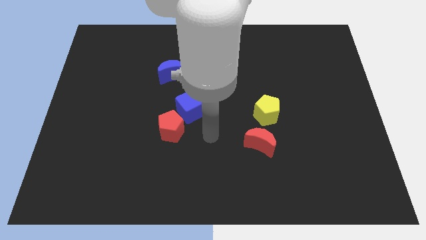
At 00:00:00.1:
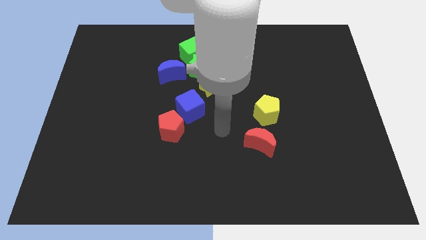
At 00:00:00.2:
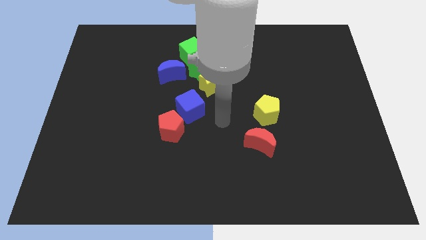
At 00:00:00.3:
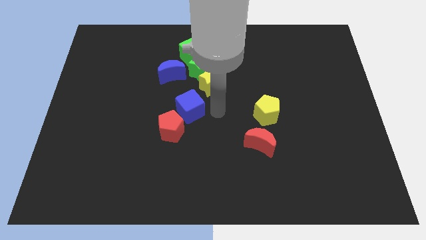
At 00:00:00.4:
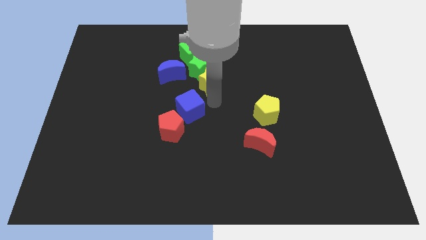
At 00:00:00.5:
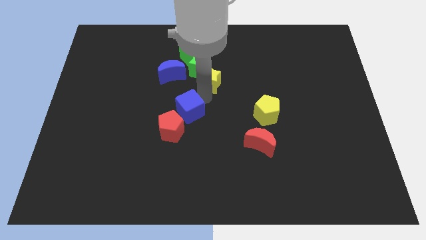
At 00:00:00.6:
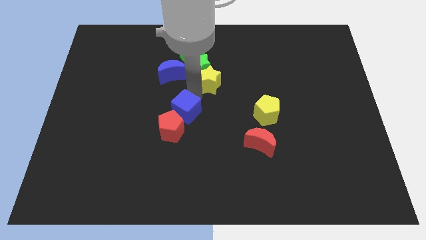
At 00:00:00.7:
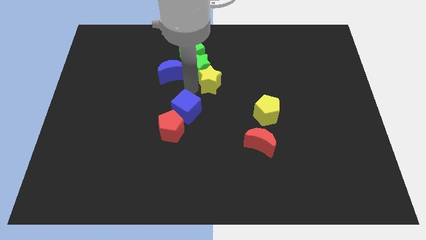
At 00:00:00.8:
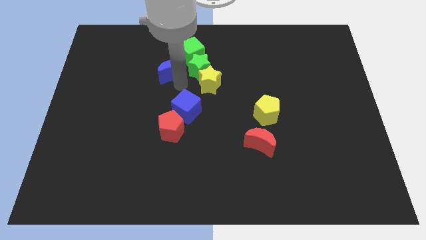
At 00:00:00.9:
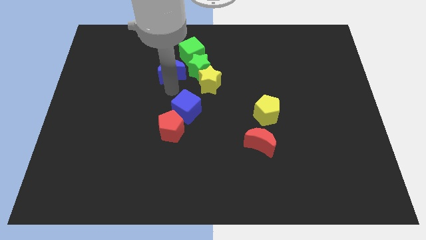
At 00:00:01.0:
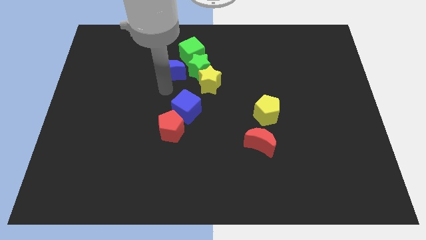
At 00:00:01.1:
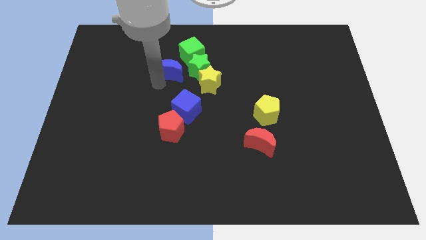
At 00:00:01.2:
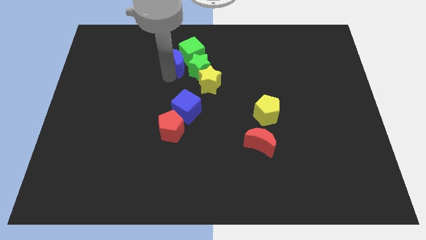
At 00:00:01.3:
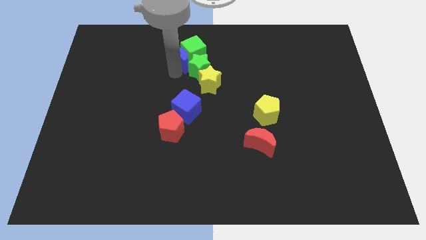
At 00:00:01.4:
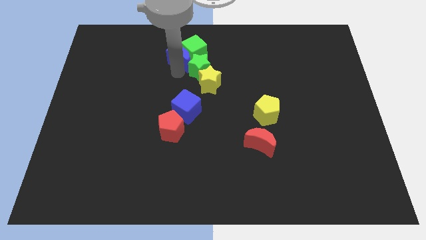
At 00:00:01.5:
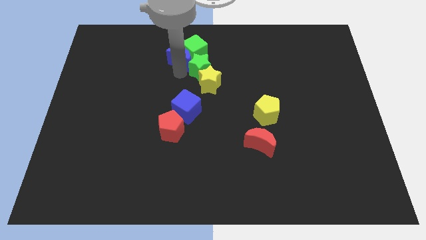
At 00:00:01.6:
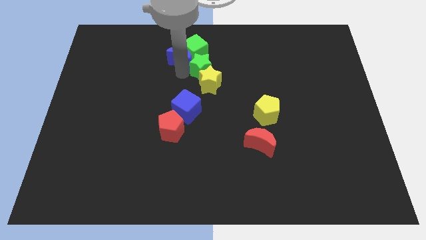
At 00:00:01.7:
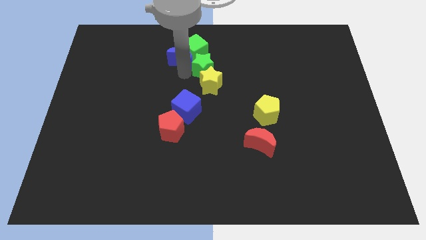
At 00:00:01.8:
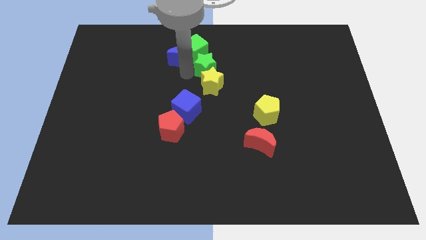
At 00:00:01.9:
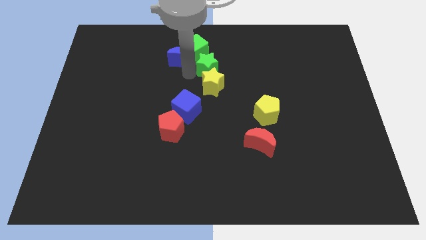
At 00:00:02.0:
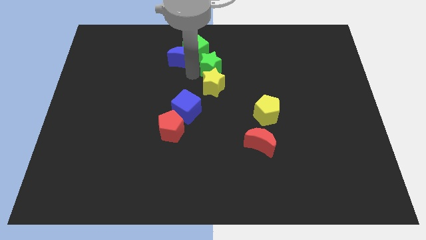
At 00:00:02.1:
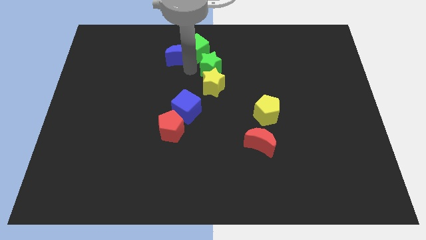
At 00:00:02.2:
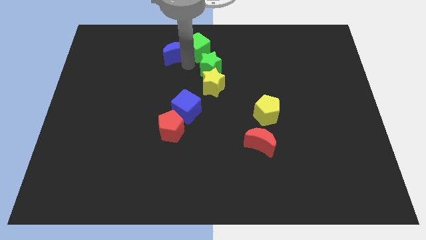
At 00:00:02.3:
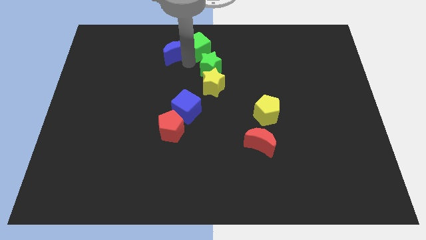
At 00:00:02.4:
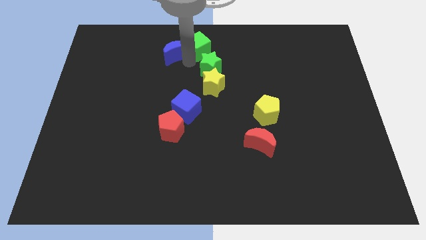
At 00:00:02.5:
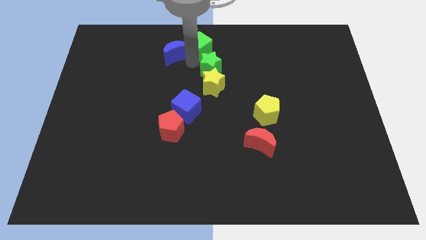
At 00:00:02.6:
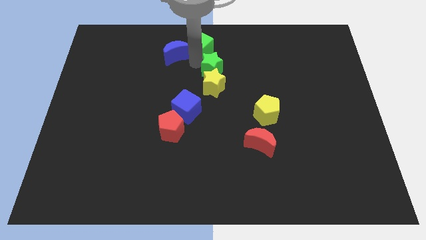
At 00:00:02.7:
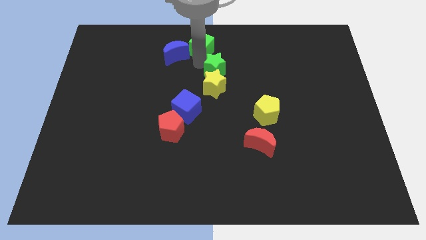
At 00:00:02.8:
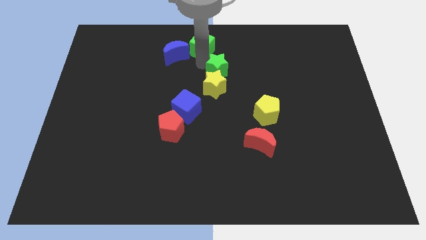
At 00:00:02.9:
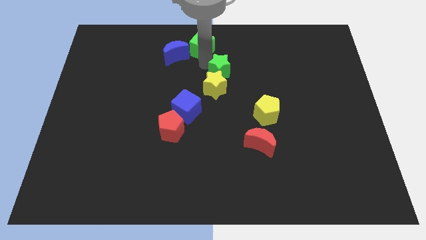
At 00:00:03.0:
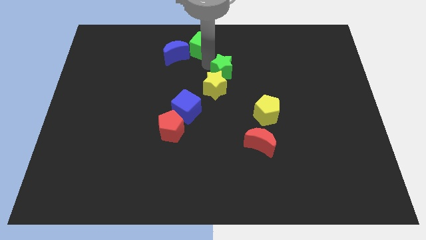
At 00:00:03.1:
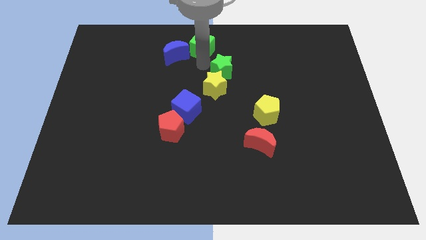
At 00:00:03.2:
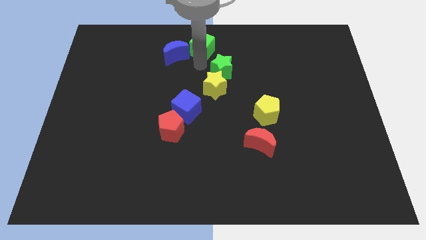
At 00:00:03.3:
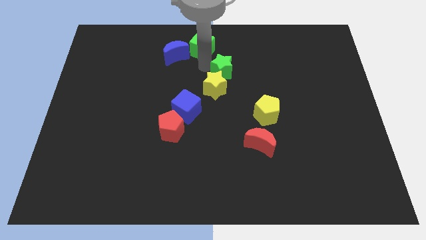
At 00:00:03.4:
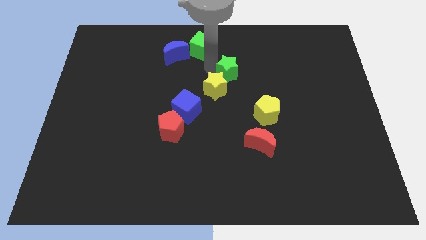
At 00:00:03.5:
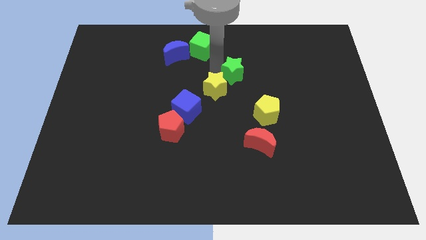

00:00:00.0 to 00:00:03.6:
separate the green star from the yellow star, green cube, and blue moon

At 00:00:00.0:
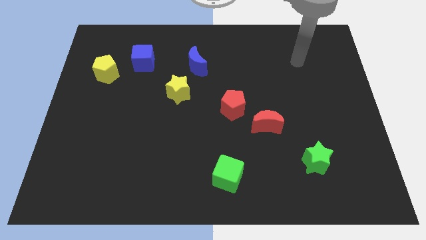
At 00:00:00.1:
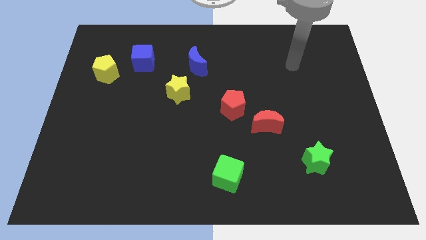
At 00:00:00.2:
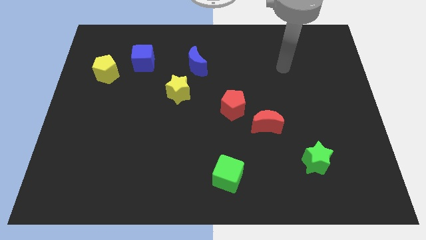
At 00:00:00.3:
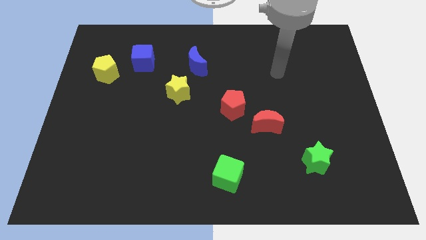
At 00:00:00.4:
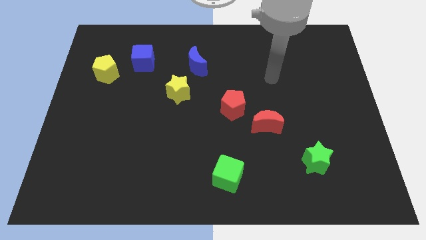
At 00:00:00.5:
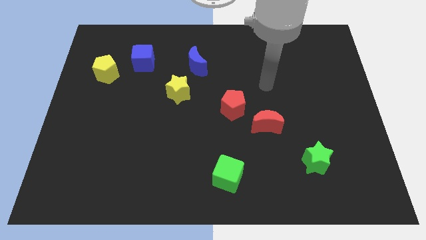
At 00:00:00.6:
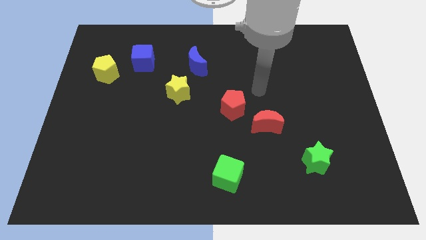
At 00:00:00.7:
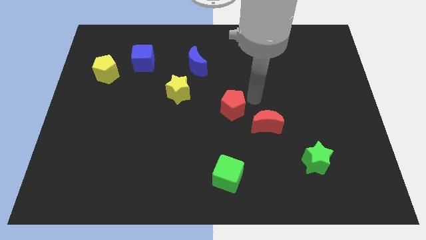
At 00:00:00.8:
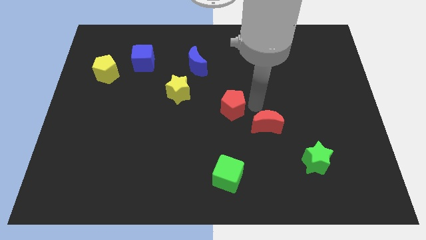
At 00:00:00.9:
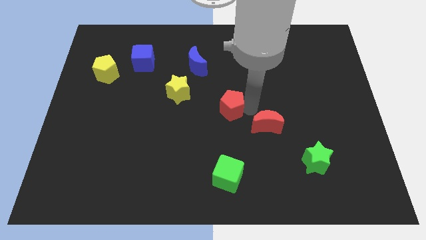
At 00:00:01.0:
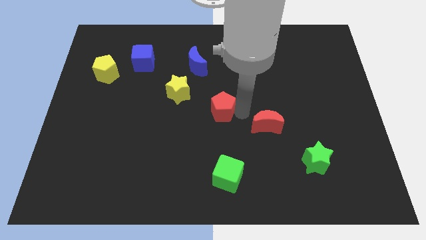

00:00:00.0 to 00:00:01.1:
separate the red moon from the red pentagon

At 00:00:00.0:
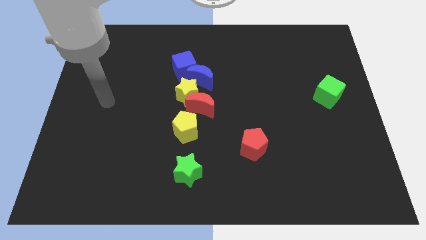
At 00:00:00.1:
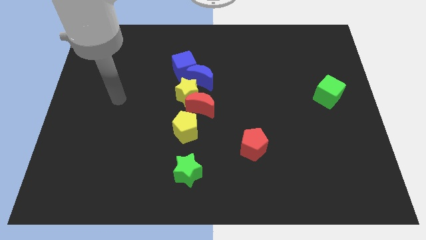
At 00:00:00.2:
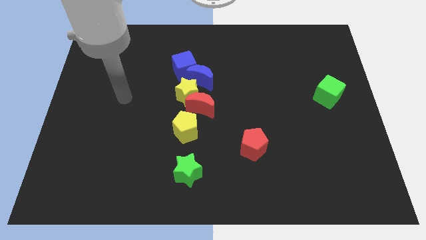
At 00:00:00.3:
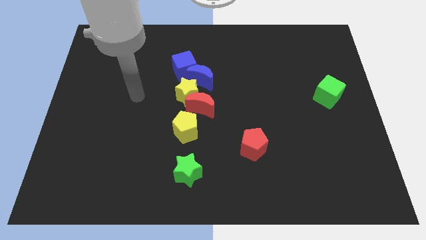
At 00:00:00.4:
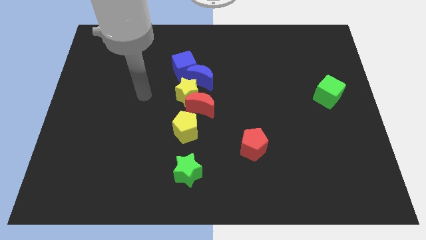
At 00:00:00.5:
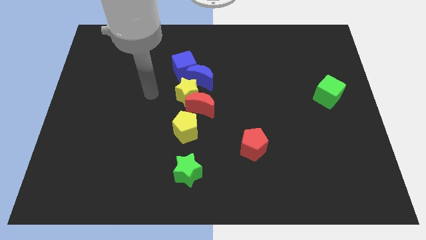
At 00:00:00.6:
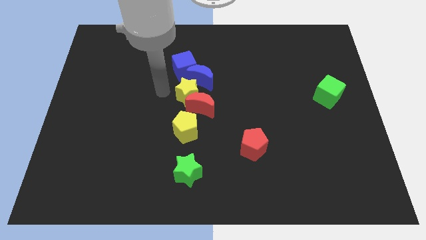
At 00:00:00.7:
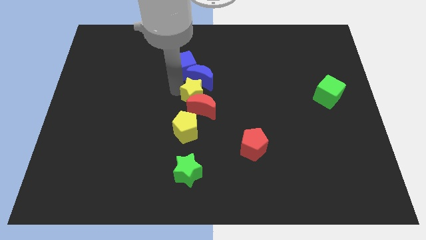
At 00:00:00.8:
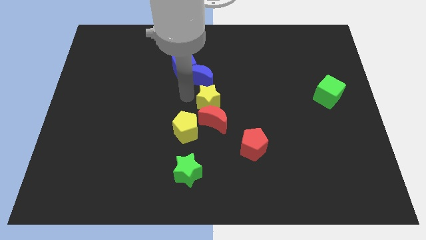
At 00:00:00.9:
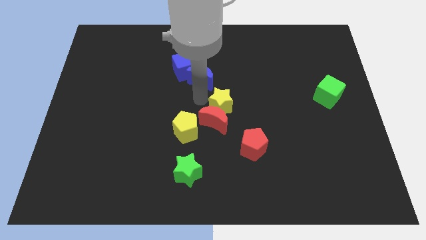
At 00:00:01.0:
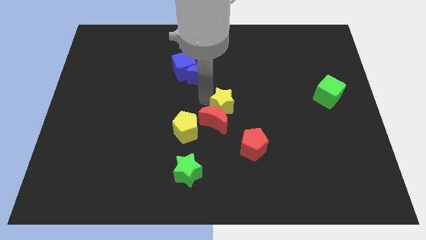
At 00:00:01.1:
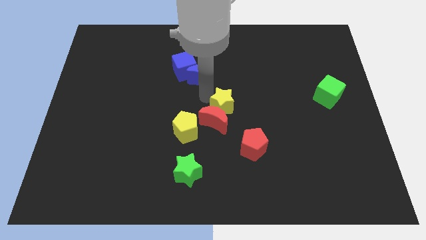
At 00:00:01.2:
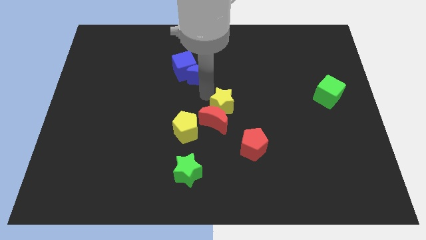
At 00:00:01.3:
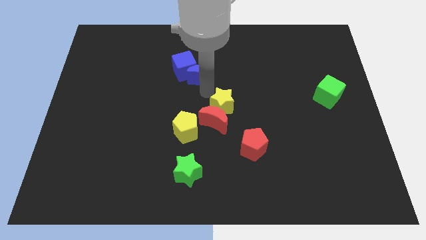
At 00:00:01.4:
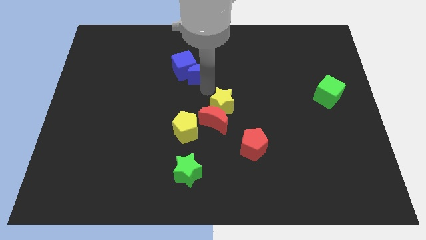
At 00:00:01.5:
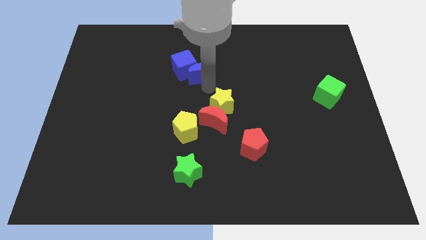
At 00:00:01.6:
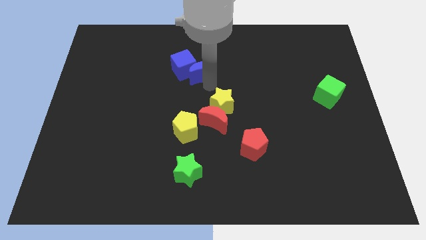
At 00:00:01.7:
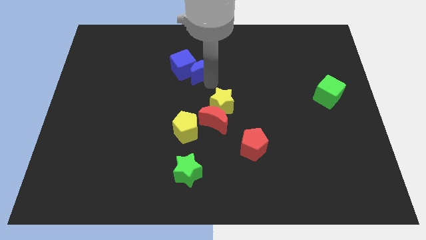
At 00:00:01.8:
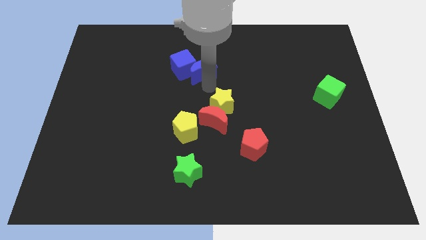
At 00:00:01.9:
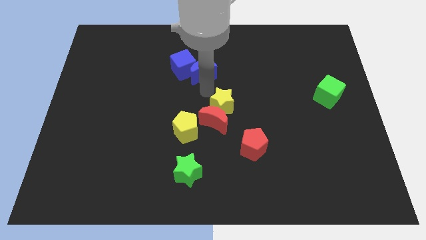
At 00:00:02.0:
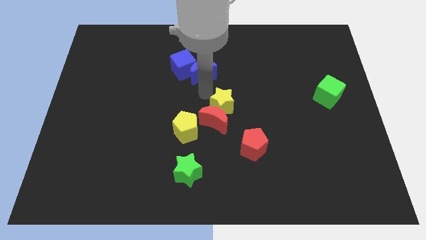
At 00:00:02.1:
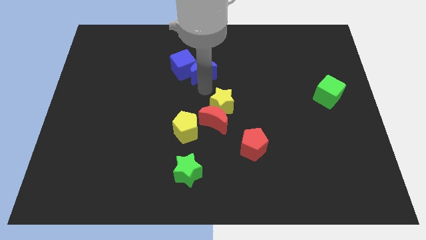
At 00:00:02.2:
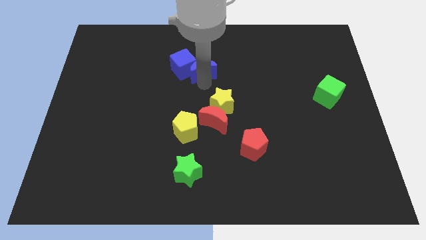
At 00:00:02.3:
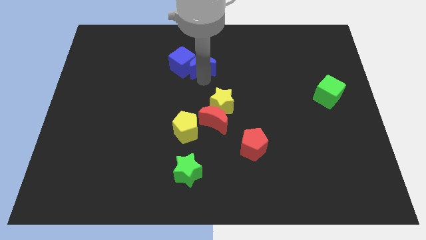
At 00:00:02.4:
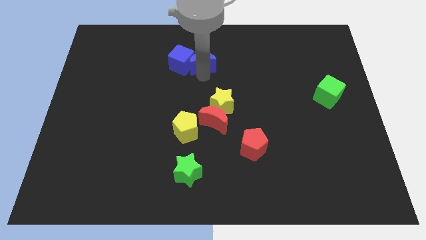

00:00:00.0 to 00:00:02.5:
pull the blue moon apart from the group

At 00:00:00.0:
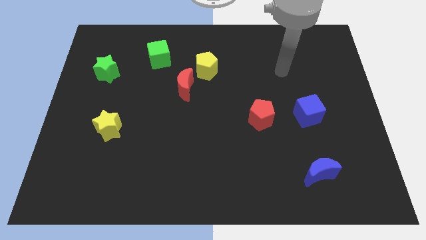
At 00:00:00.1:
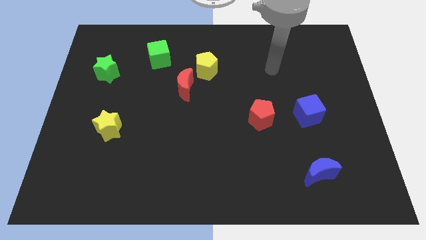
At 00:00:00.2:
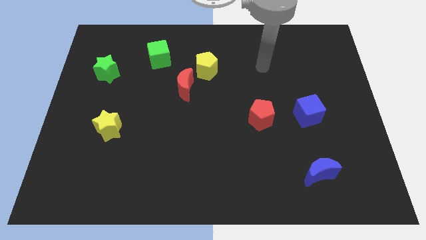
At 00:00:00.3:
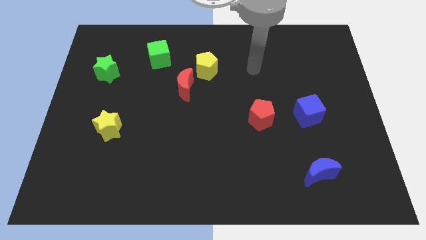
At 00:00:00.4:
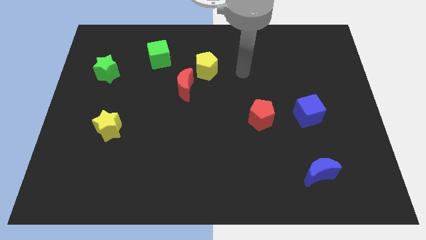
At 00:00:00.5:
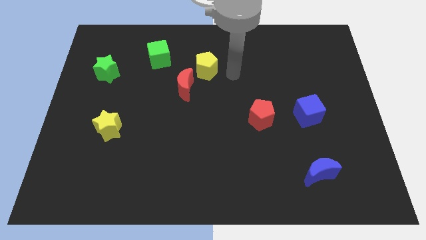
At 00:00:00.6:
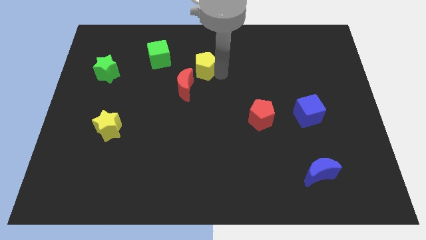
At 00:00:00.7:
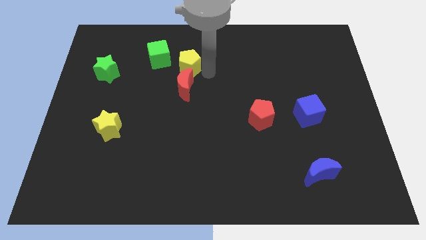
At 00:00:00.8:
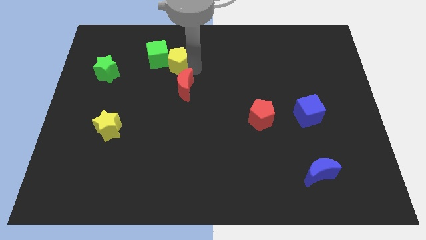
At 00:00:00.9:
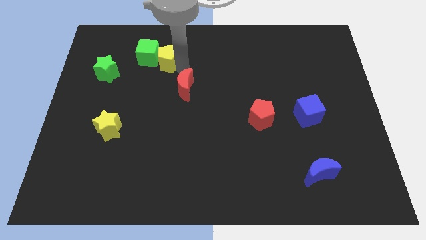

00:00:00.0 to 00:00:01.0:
move the red moon away from the yellow pentagon

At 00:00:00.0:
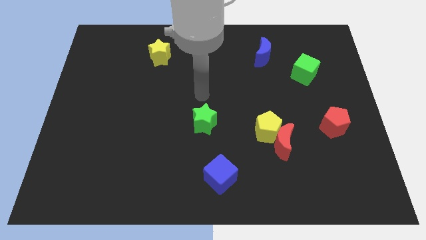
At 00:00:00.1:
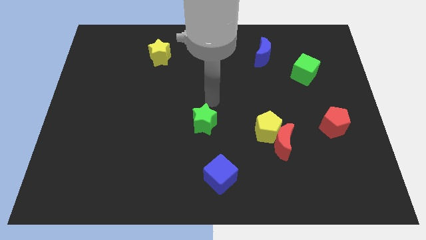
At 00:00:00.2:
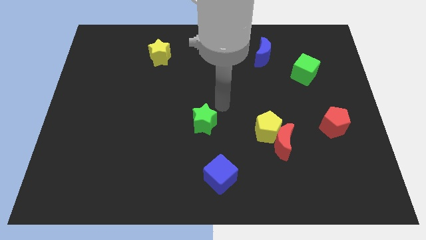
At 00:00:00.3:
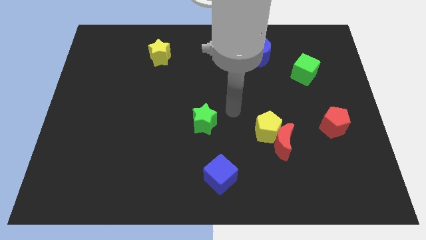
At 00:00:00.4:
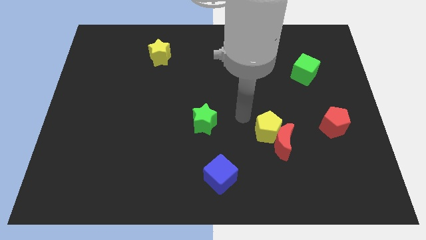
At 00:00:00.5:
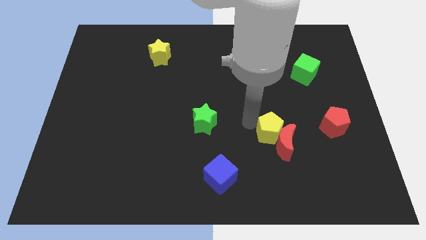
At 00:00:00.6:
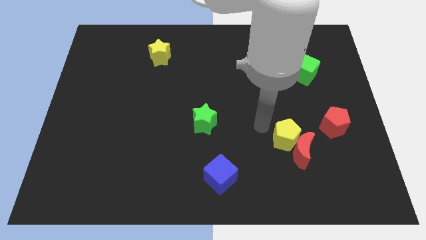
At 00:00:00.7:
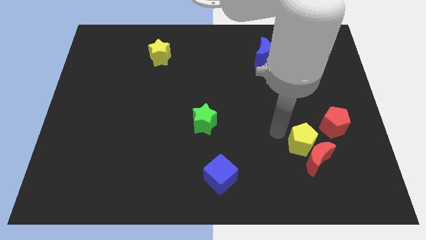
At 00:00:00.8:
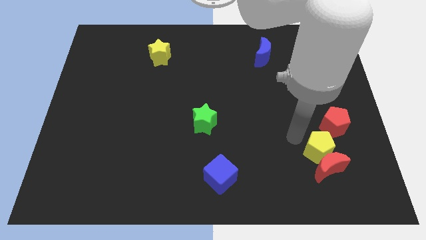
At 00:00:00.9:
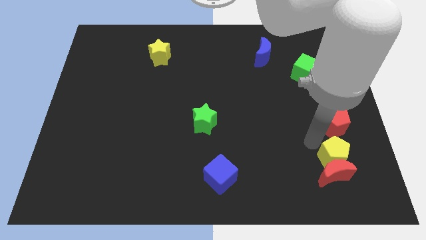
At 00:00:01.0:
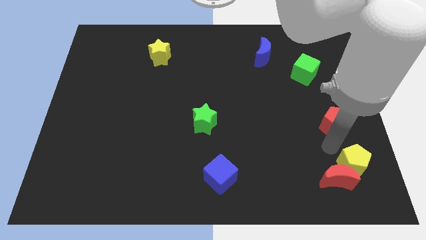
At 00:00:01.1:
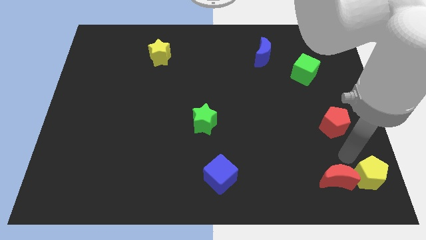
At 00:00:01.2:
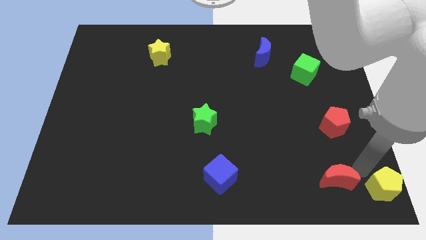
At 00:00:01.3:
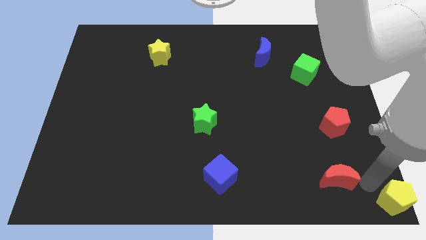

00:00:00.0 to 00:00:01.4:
separate the red moon from the yellow pentagon
